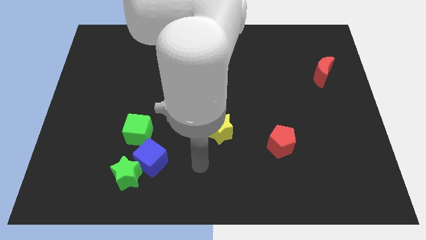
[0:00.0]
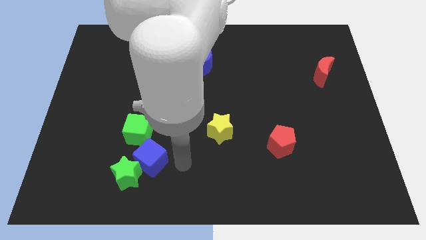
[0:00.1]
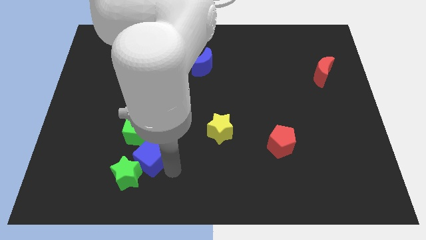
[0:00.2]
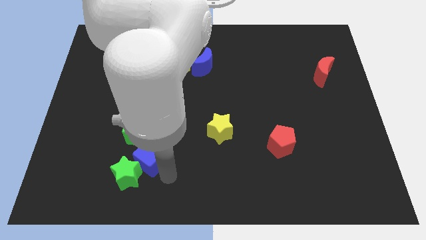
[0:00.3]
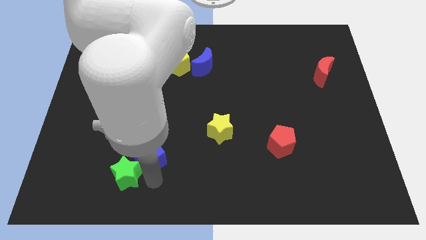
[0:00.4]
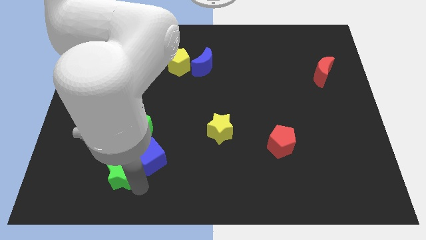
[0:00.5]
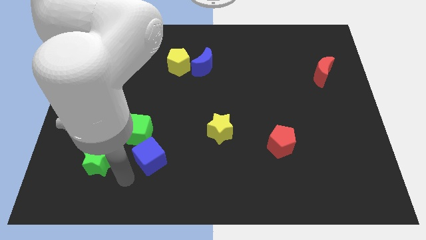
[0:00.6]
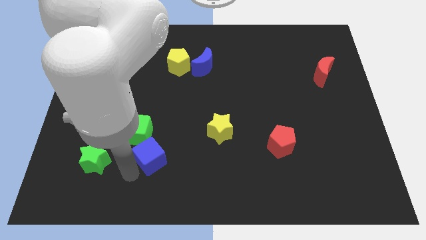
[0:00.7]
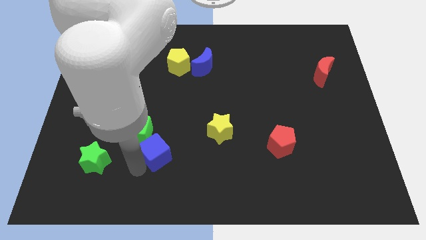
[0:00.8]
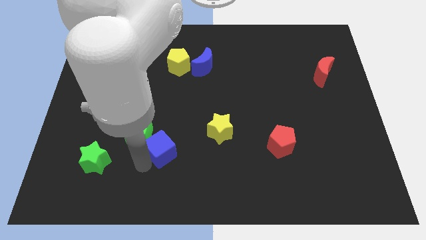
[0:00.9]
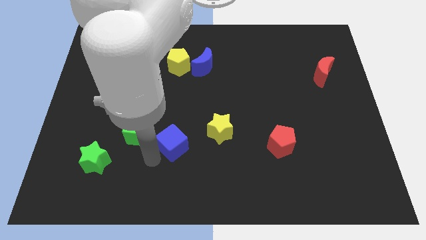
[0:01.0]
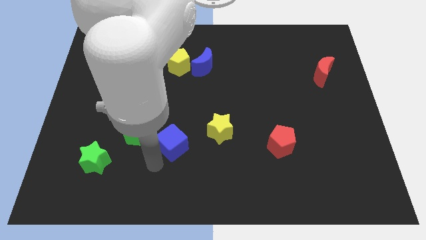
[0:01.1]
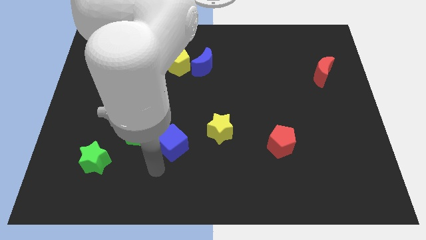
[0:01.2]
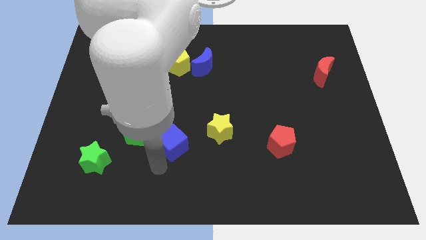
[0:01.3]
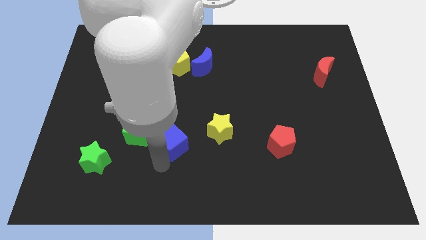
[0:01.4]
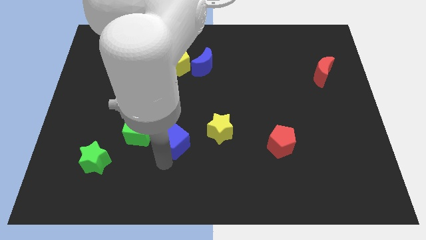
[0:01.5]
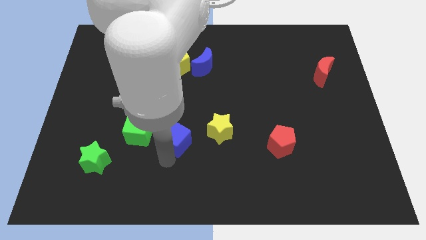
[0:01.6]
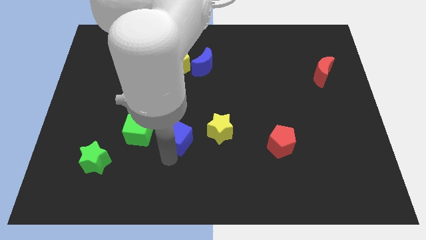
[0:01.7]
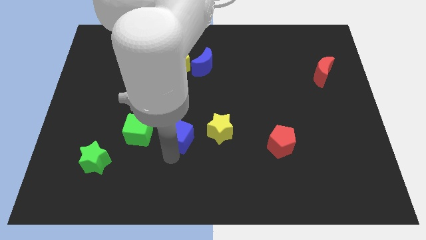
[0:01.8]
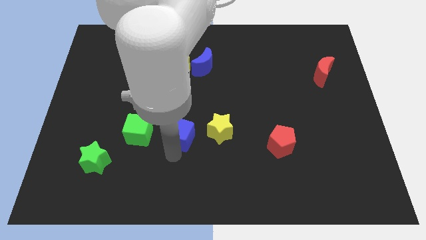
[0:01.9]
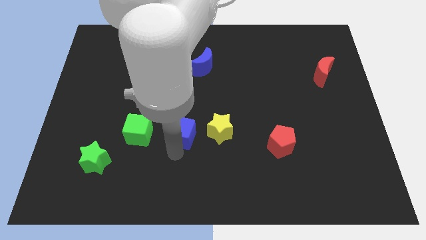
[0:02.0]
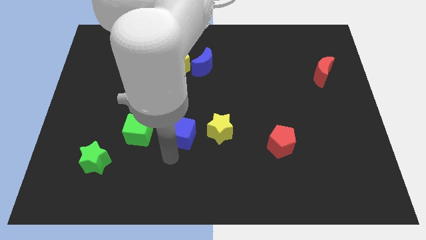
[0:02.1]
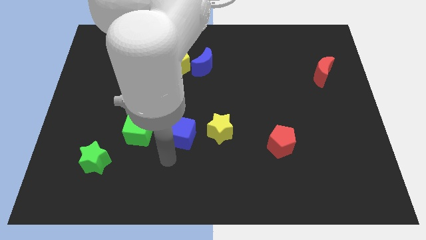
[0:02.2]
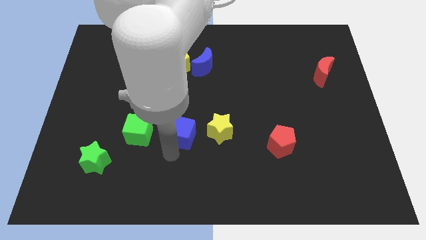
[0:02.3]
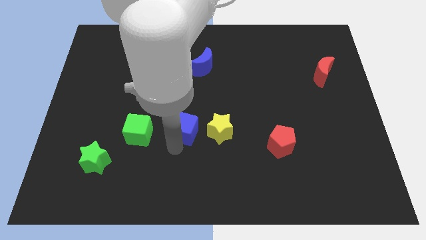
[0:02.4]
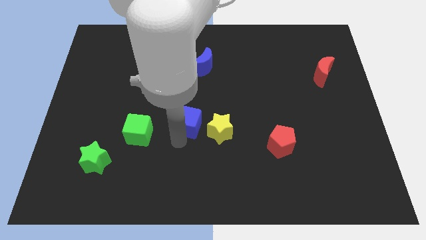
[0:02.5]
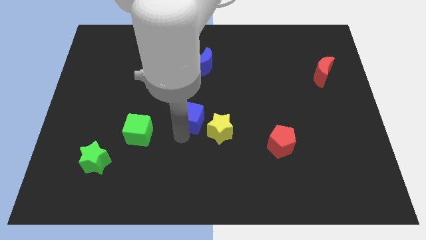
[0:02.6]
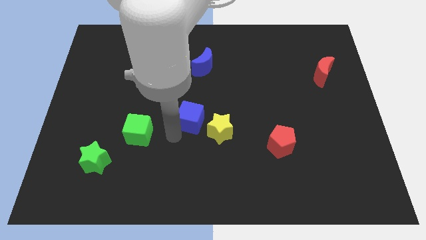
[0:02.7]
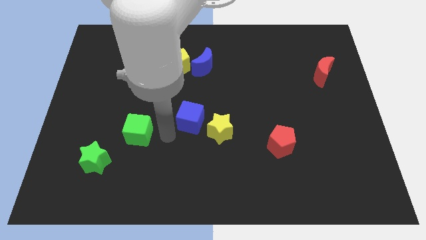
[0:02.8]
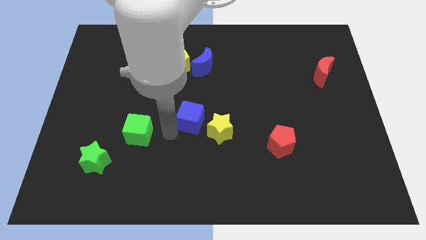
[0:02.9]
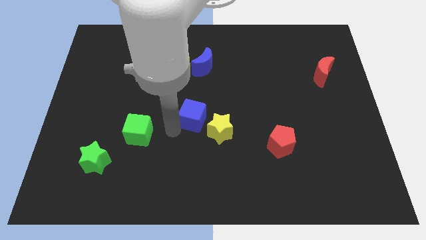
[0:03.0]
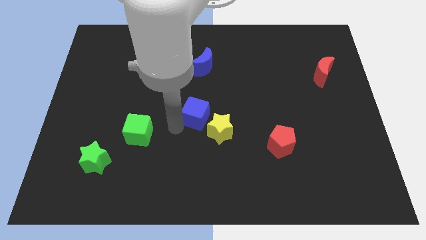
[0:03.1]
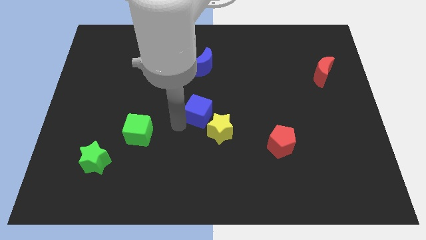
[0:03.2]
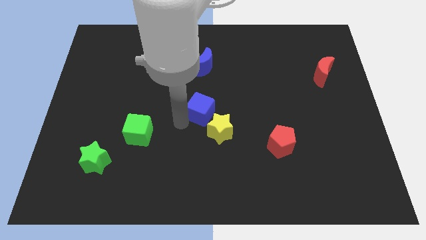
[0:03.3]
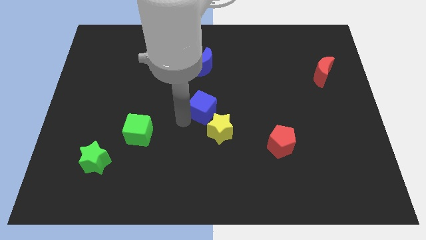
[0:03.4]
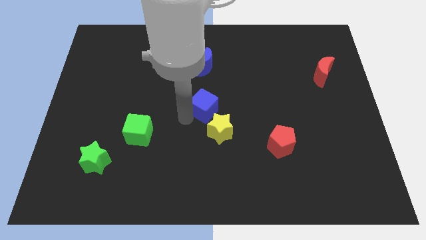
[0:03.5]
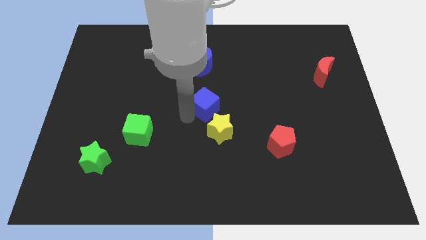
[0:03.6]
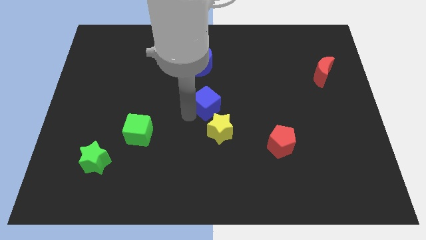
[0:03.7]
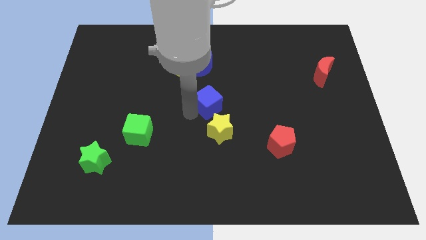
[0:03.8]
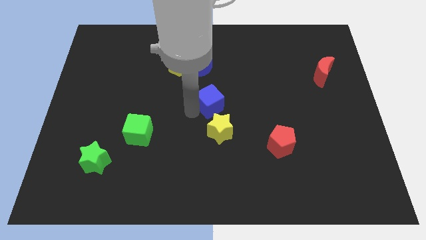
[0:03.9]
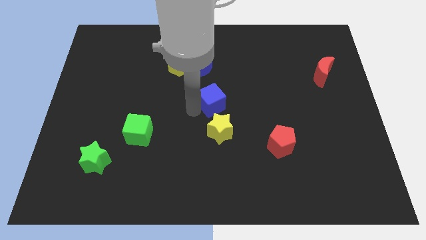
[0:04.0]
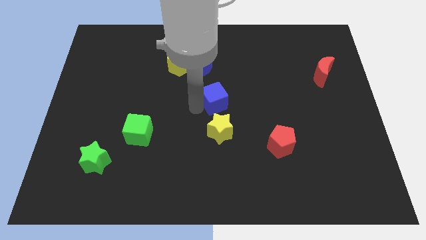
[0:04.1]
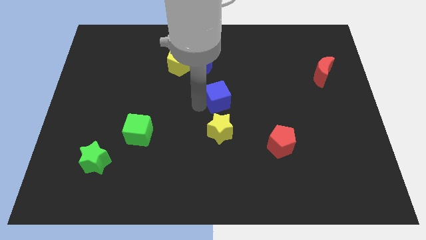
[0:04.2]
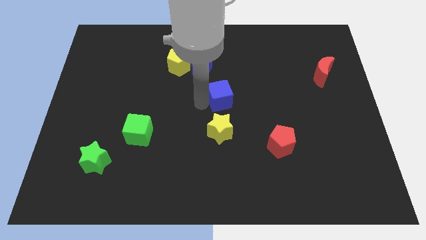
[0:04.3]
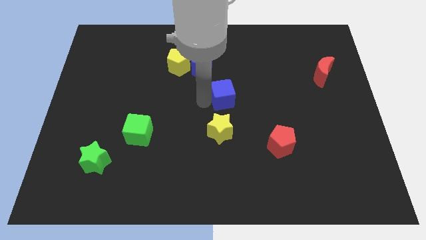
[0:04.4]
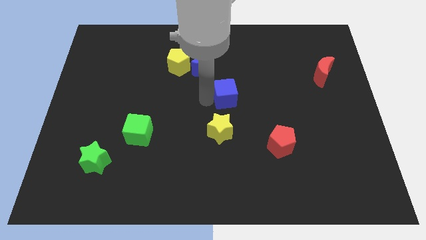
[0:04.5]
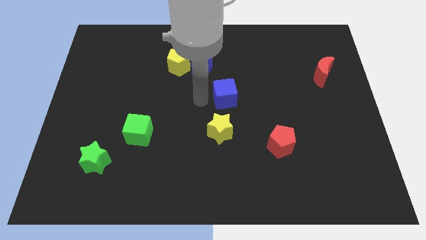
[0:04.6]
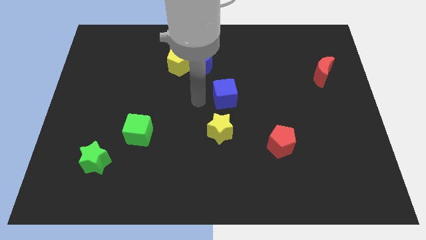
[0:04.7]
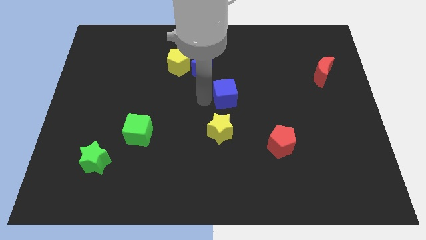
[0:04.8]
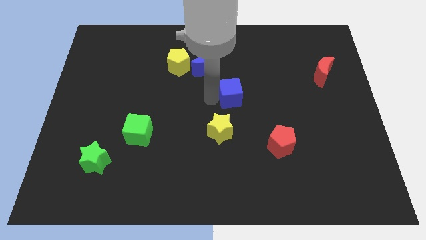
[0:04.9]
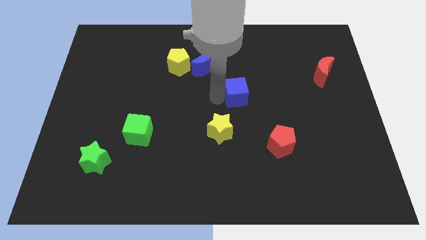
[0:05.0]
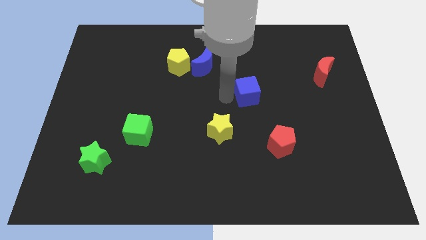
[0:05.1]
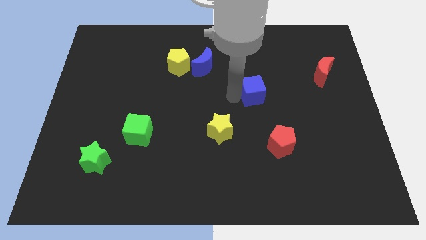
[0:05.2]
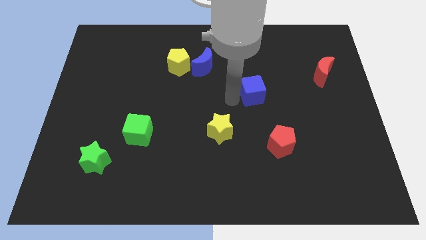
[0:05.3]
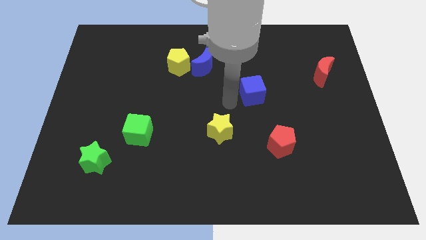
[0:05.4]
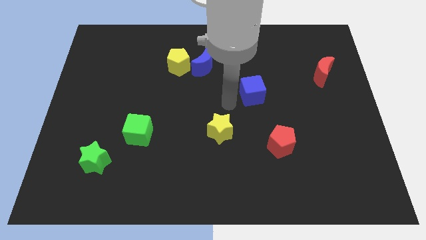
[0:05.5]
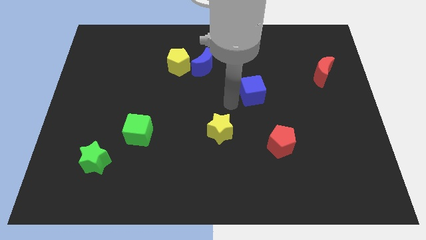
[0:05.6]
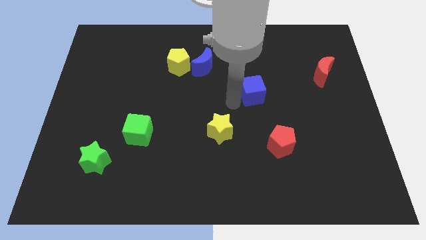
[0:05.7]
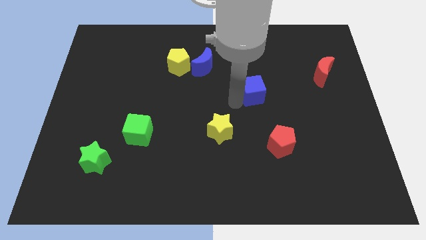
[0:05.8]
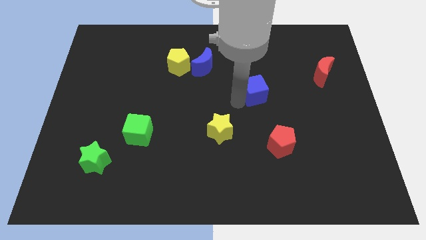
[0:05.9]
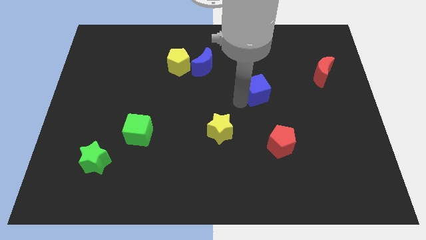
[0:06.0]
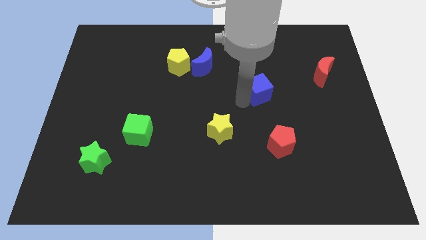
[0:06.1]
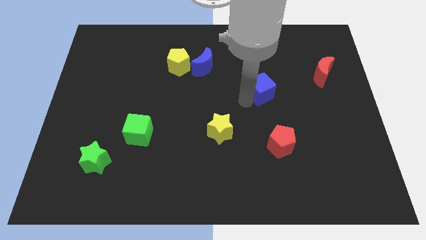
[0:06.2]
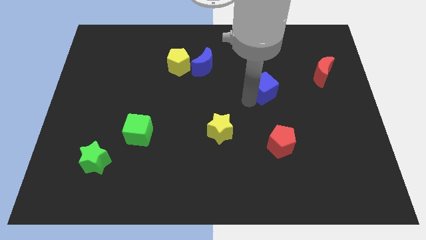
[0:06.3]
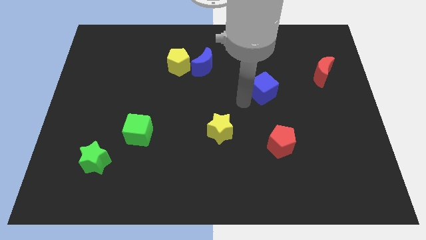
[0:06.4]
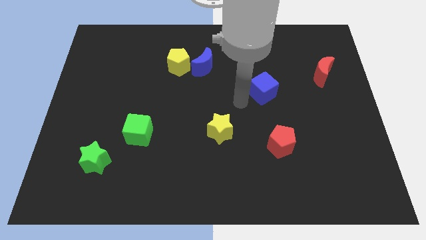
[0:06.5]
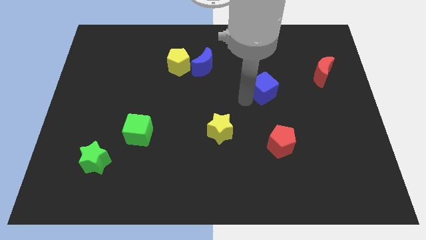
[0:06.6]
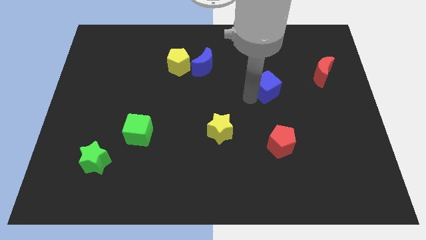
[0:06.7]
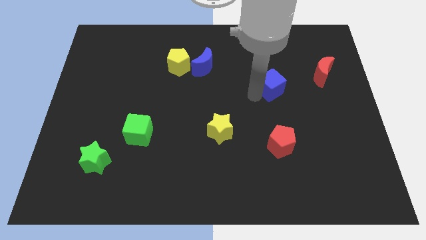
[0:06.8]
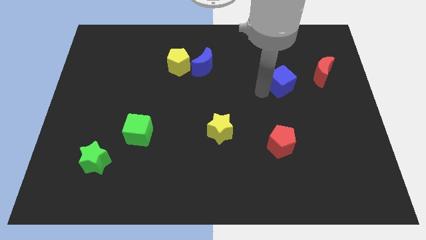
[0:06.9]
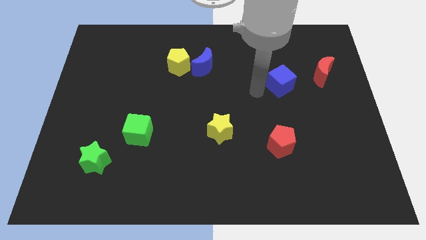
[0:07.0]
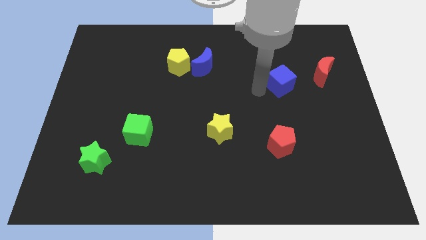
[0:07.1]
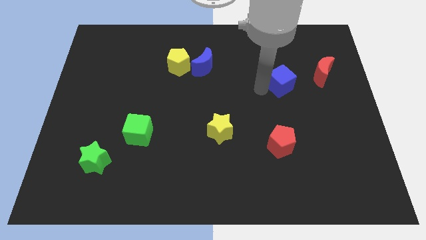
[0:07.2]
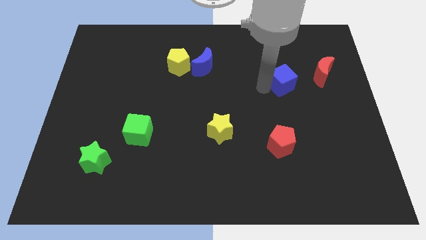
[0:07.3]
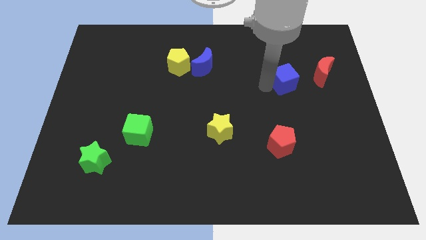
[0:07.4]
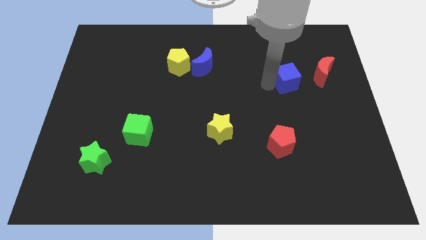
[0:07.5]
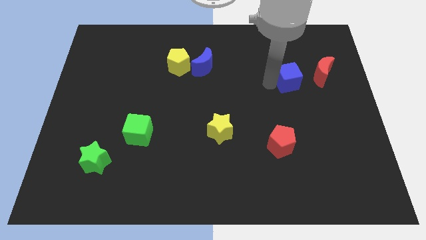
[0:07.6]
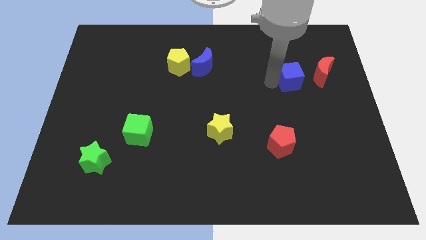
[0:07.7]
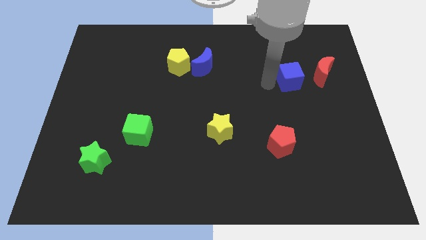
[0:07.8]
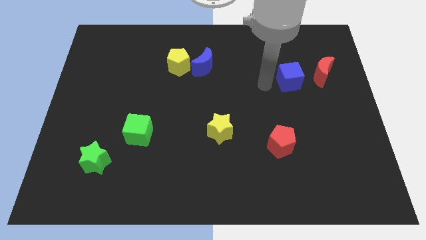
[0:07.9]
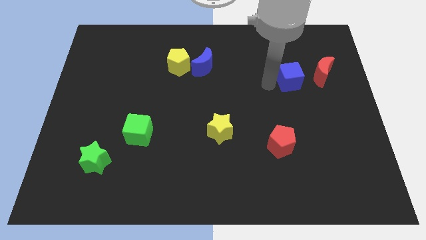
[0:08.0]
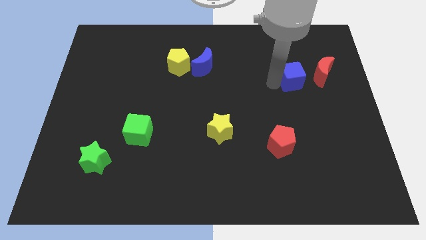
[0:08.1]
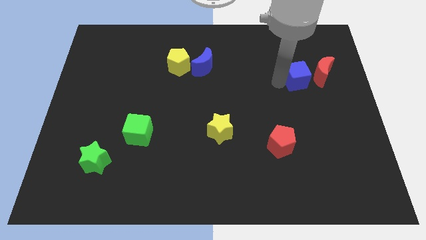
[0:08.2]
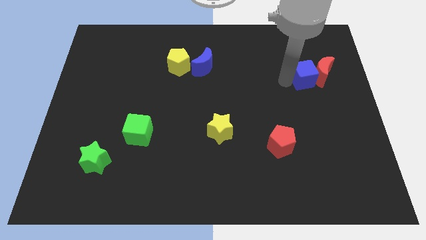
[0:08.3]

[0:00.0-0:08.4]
slide the blue cube next to the red moon
